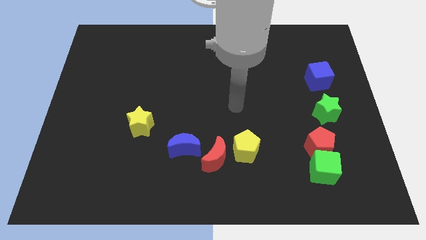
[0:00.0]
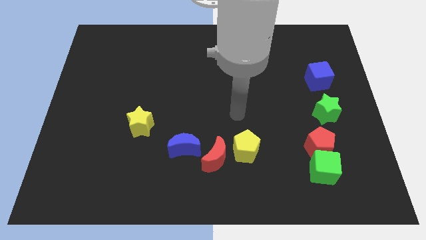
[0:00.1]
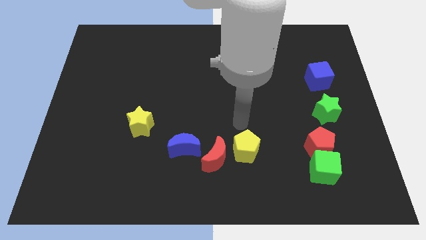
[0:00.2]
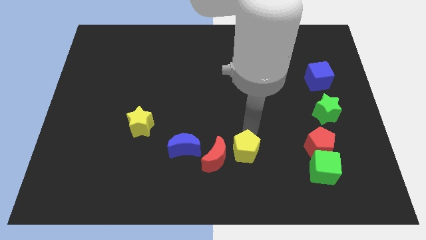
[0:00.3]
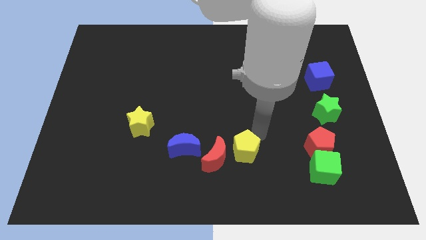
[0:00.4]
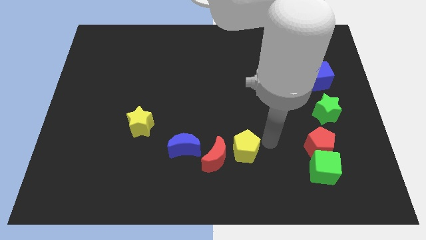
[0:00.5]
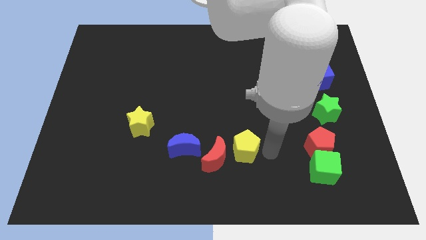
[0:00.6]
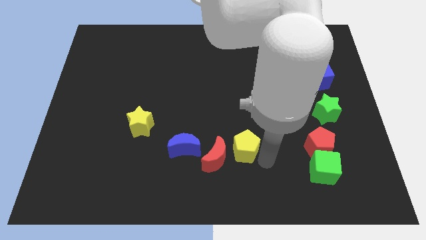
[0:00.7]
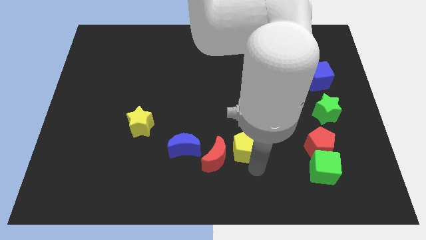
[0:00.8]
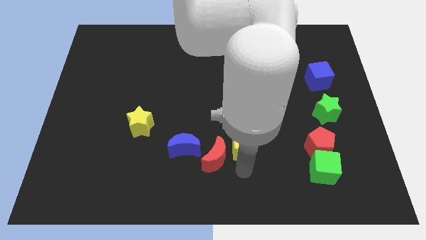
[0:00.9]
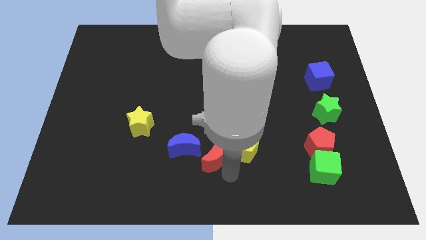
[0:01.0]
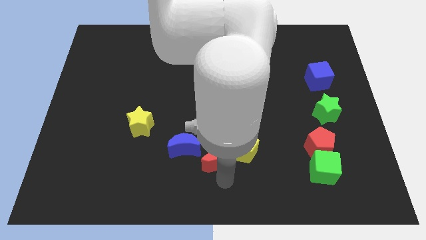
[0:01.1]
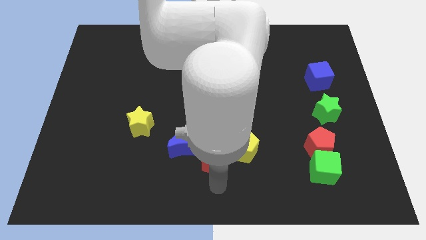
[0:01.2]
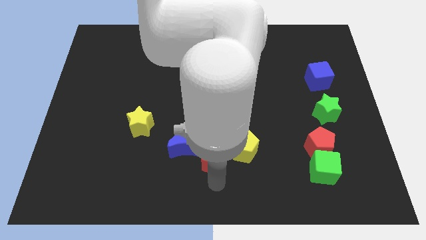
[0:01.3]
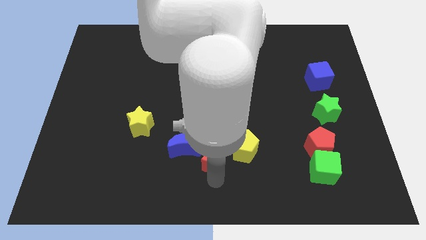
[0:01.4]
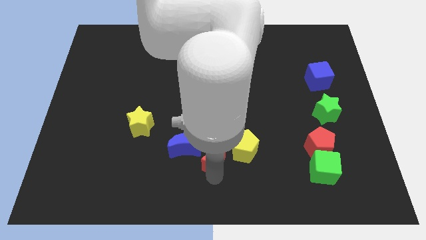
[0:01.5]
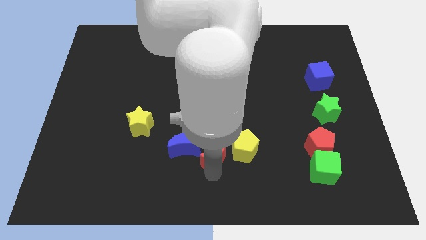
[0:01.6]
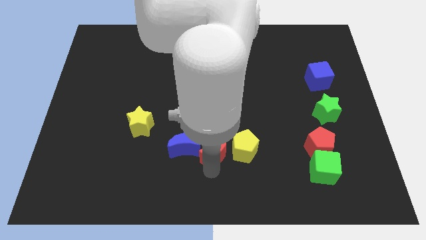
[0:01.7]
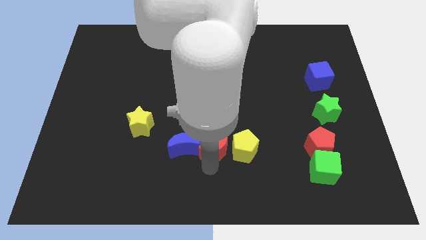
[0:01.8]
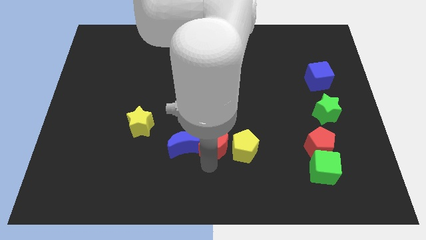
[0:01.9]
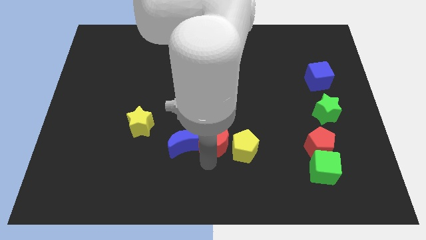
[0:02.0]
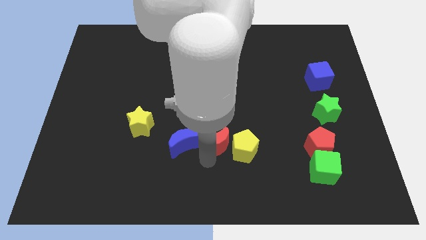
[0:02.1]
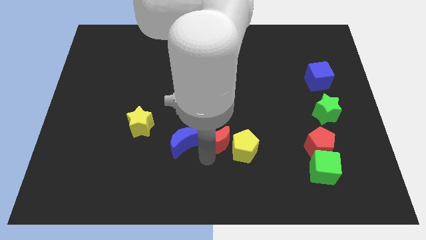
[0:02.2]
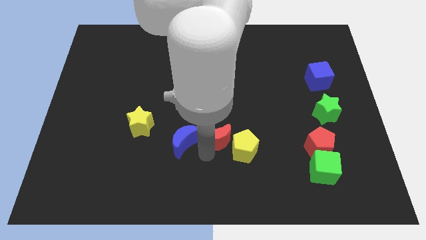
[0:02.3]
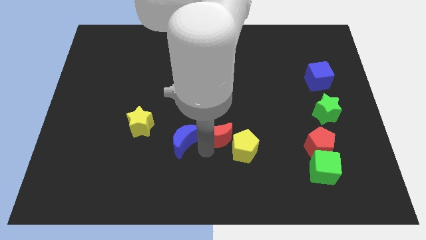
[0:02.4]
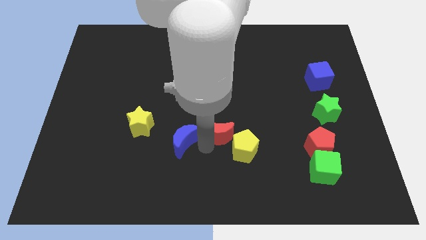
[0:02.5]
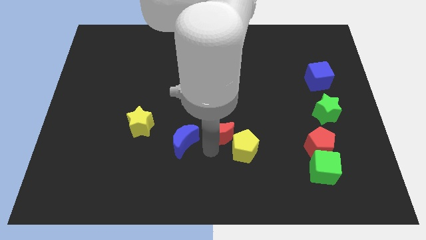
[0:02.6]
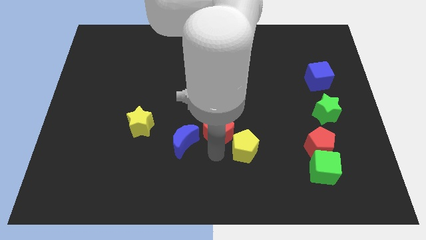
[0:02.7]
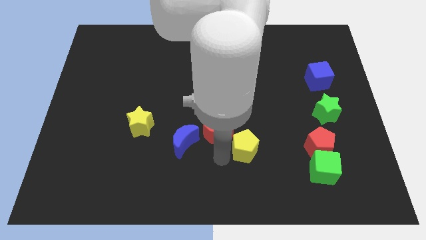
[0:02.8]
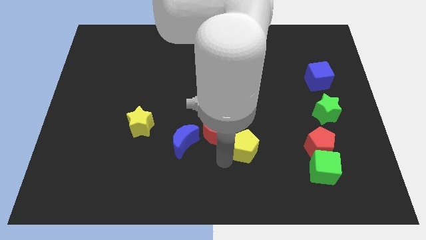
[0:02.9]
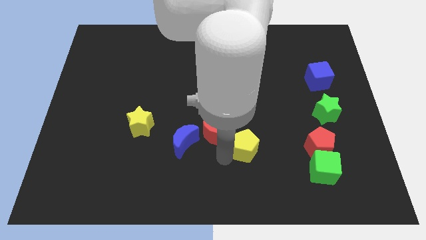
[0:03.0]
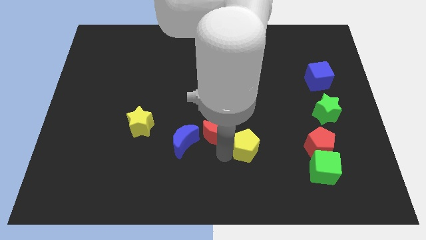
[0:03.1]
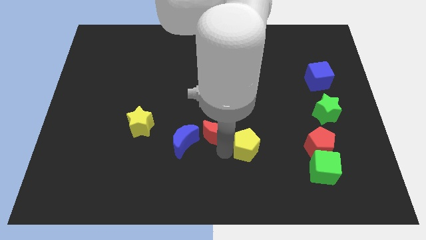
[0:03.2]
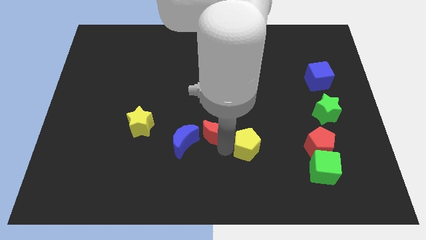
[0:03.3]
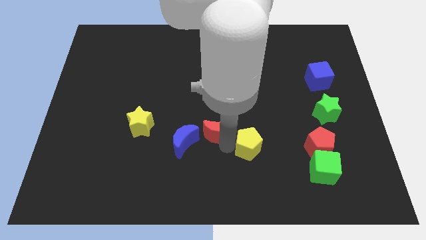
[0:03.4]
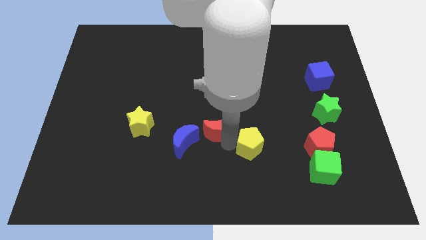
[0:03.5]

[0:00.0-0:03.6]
slightly slide the red moon upwards

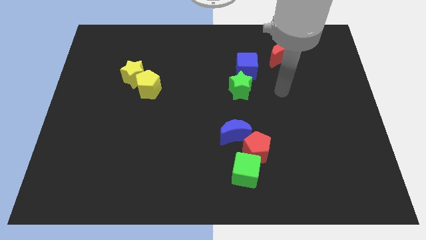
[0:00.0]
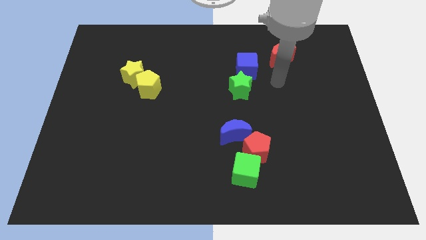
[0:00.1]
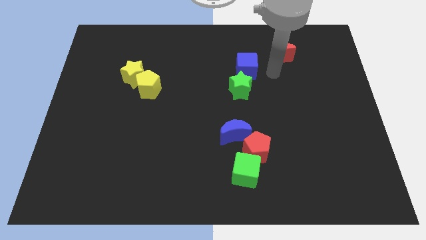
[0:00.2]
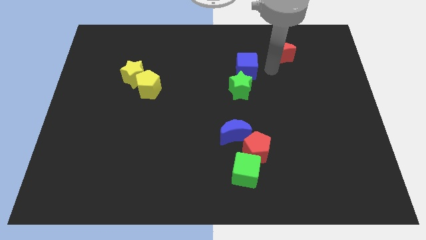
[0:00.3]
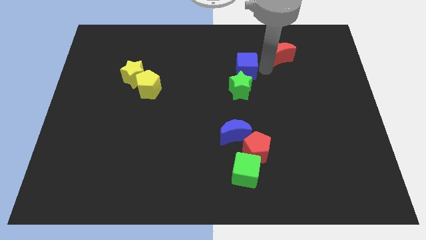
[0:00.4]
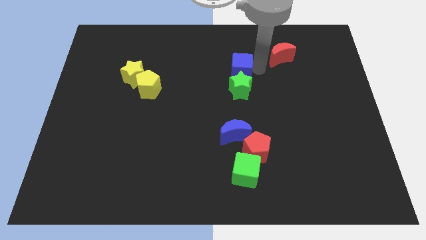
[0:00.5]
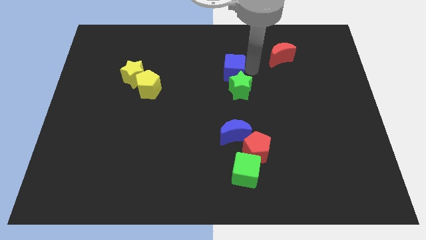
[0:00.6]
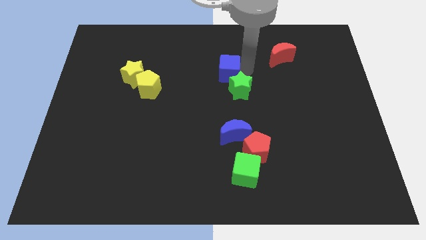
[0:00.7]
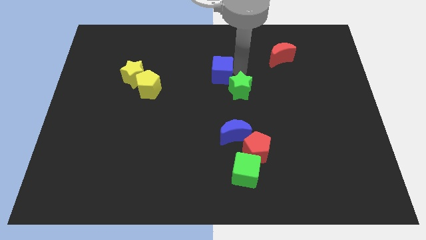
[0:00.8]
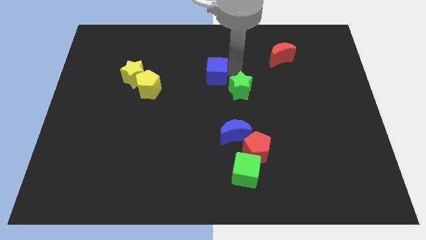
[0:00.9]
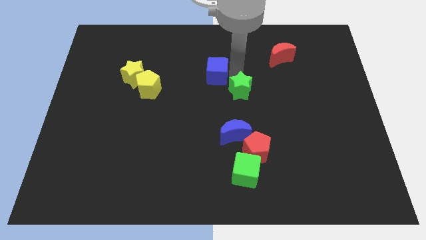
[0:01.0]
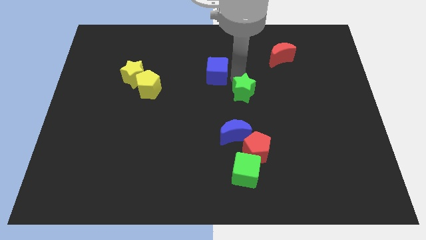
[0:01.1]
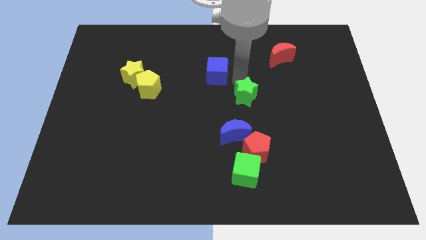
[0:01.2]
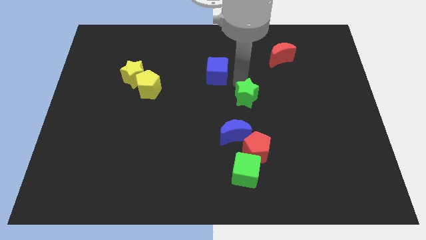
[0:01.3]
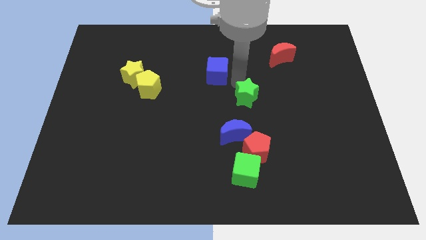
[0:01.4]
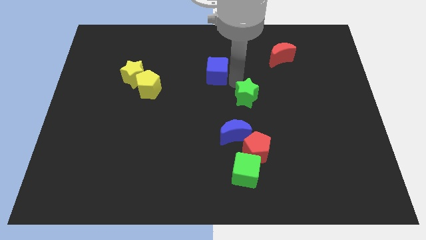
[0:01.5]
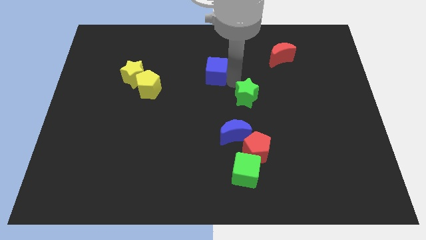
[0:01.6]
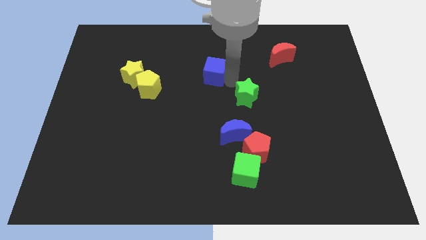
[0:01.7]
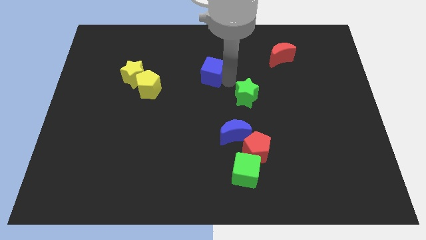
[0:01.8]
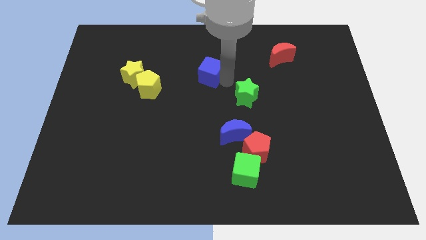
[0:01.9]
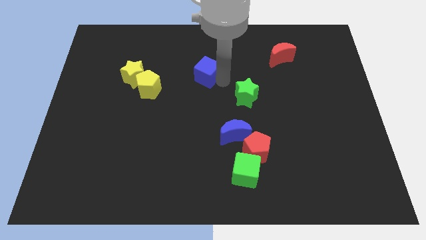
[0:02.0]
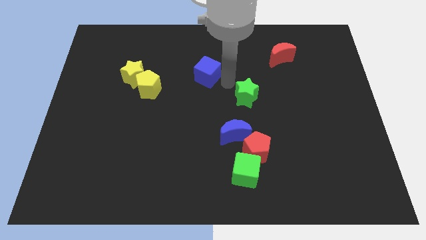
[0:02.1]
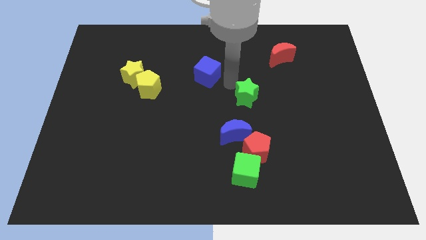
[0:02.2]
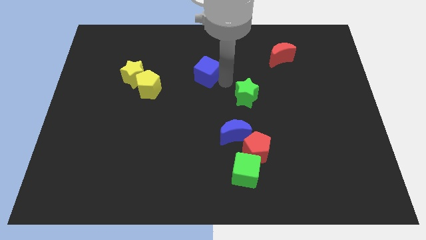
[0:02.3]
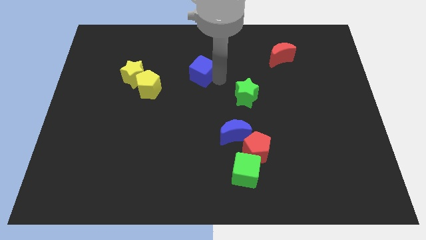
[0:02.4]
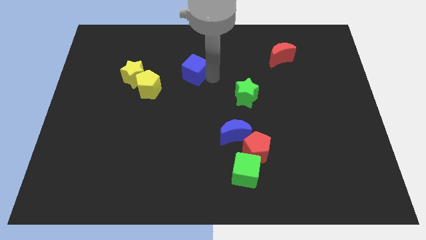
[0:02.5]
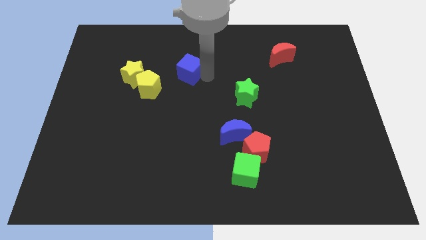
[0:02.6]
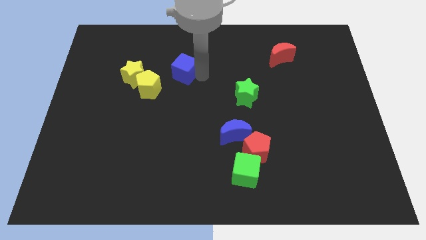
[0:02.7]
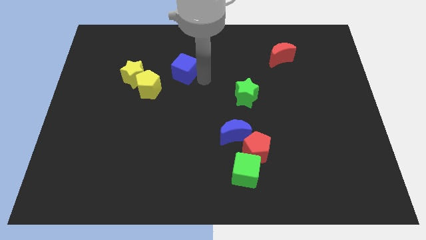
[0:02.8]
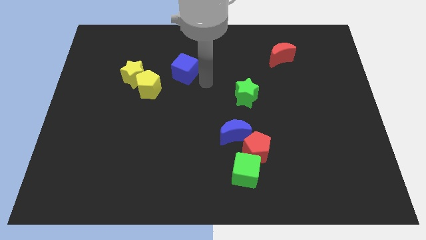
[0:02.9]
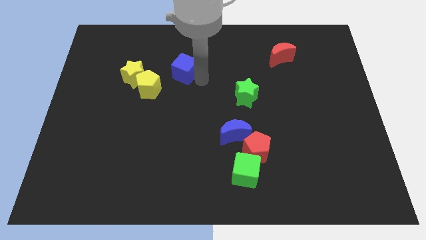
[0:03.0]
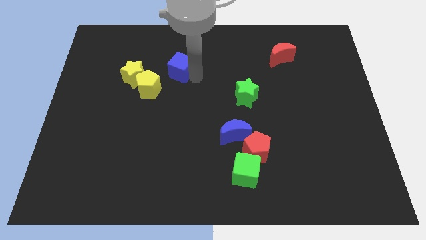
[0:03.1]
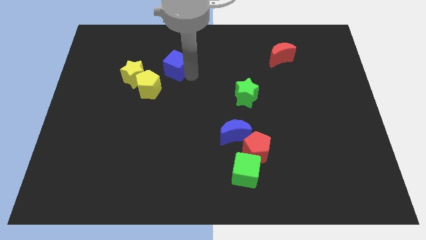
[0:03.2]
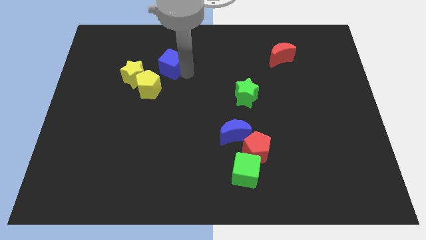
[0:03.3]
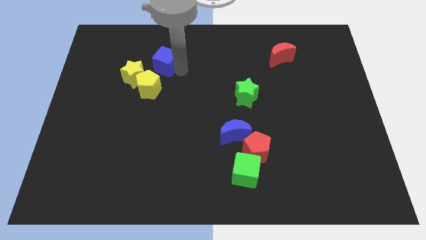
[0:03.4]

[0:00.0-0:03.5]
push the blue cube to the left

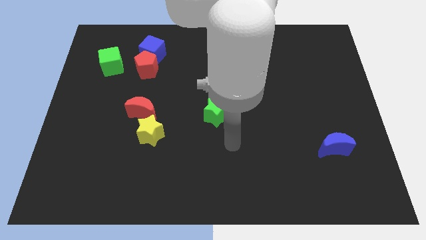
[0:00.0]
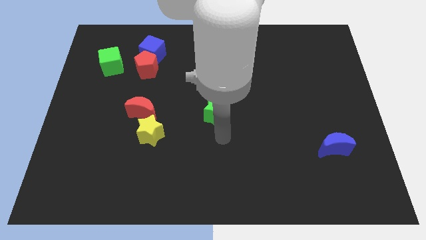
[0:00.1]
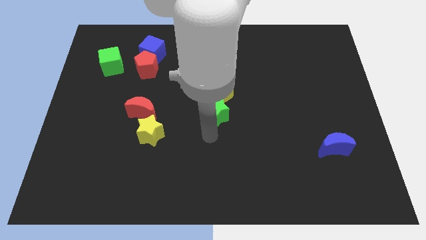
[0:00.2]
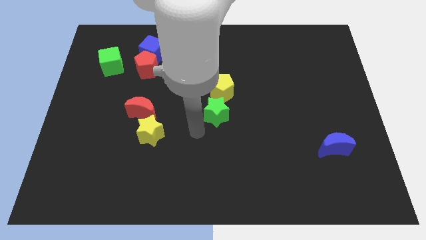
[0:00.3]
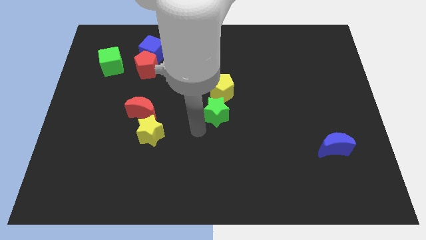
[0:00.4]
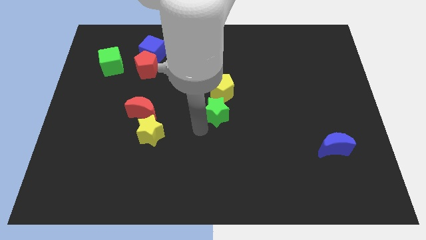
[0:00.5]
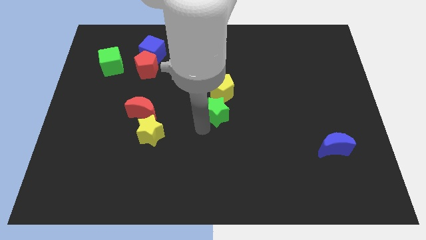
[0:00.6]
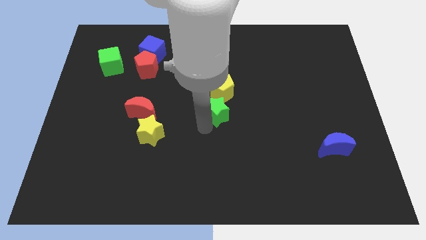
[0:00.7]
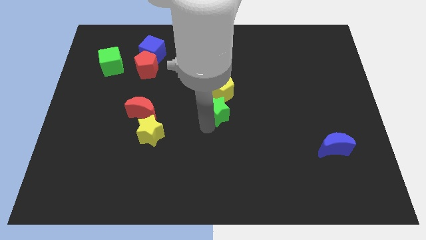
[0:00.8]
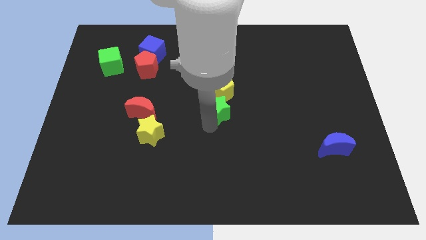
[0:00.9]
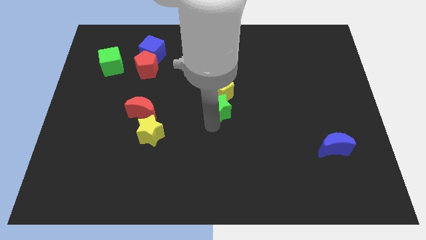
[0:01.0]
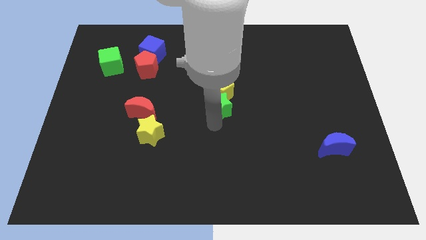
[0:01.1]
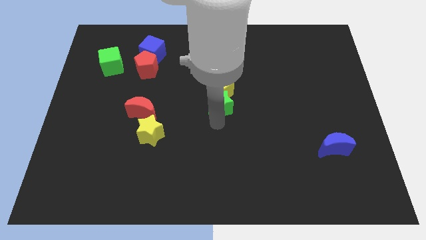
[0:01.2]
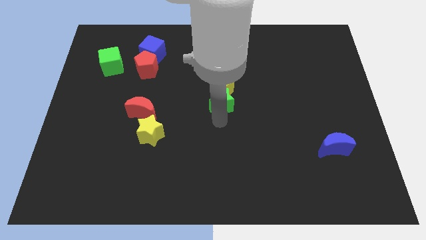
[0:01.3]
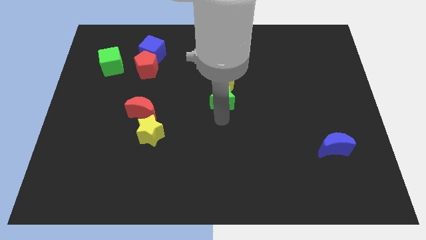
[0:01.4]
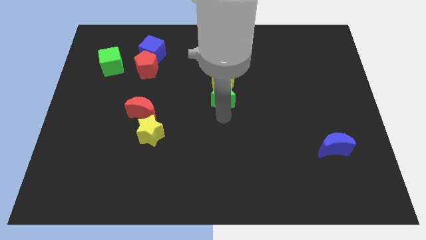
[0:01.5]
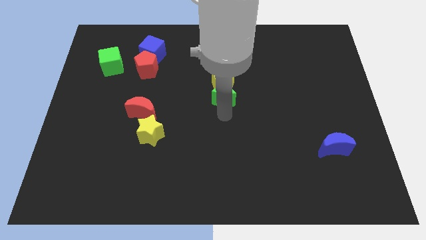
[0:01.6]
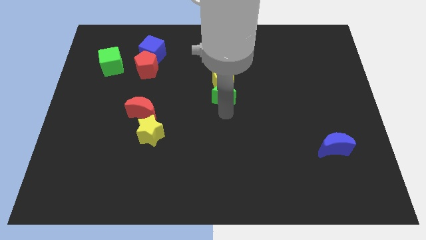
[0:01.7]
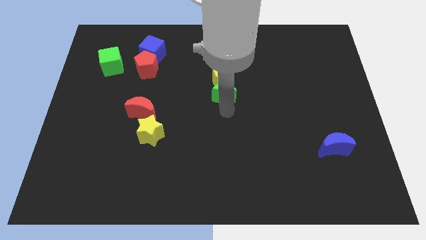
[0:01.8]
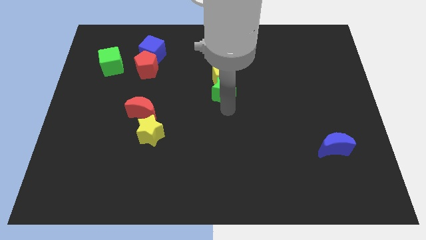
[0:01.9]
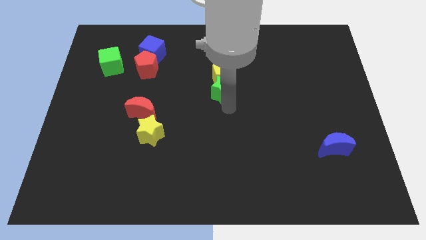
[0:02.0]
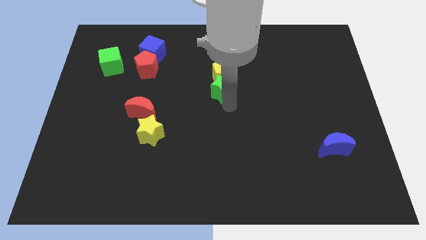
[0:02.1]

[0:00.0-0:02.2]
push the green star up a little
